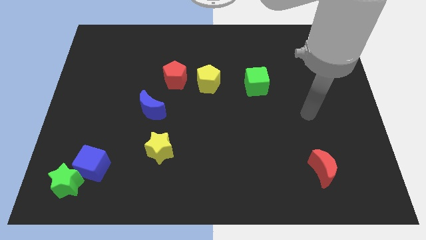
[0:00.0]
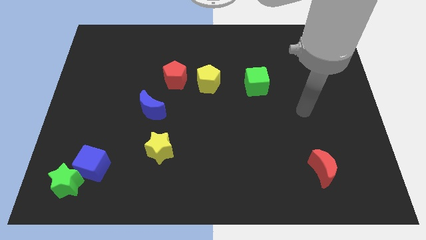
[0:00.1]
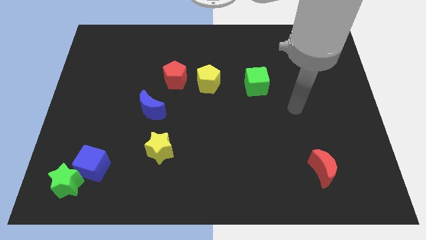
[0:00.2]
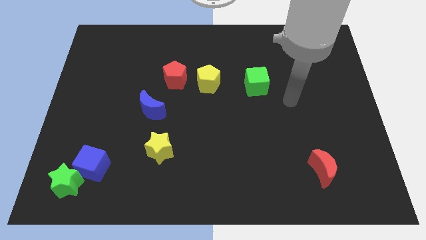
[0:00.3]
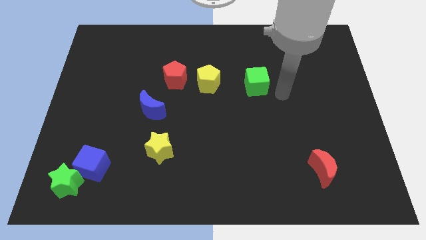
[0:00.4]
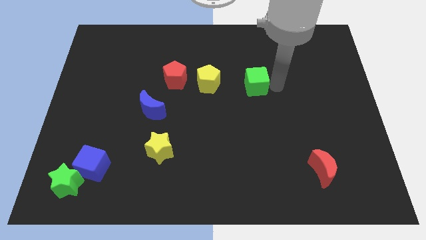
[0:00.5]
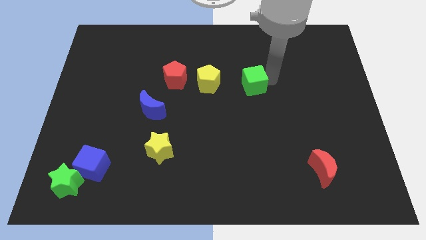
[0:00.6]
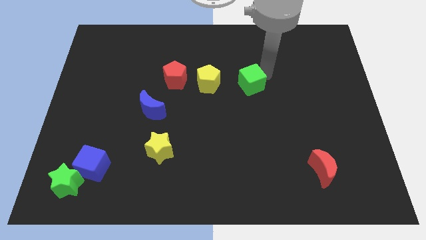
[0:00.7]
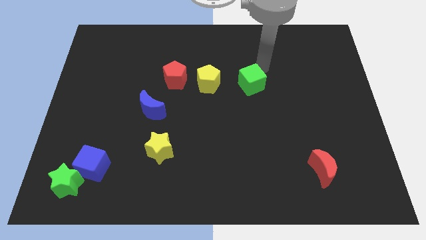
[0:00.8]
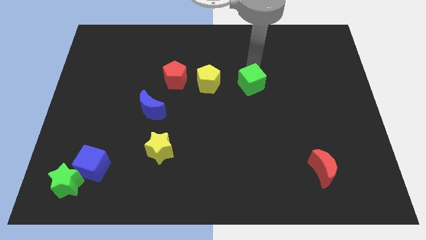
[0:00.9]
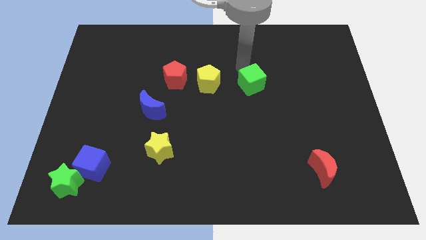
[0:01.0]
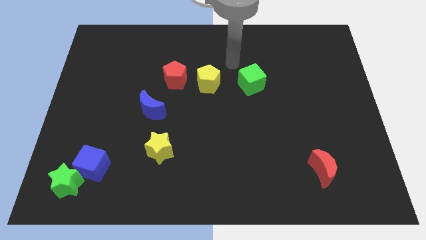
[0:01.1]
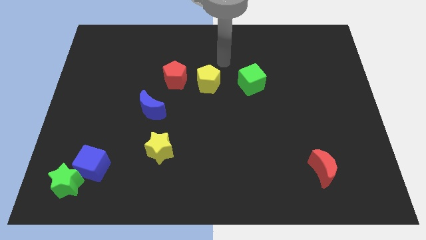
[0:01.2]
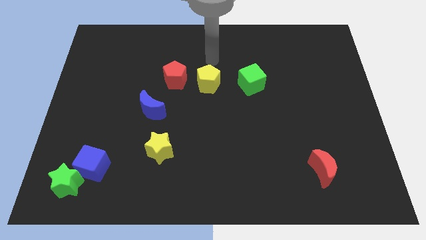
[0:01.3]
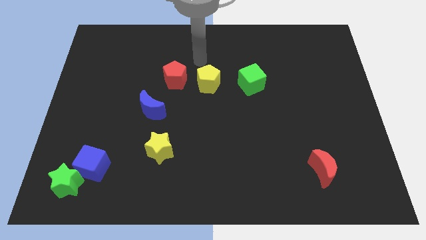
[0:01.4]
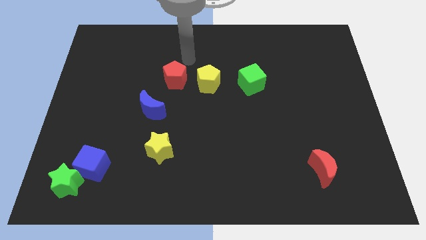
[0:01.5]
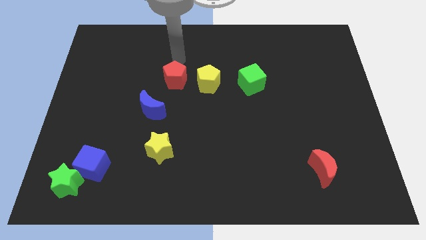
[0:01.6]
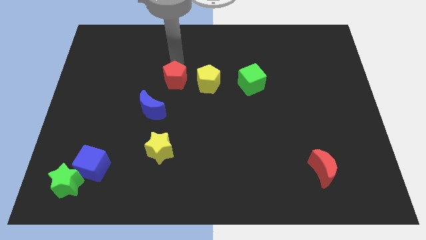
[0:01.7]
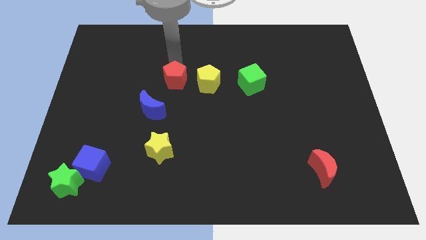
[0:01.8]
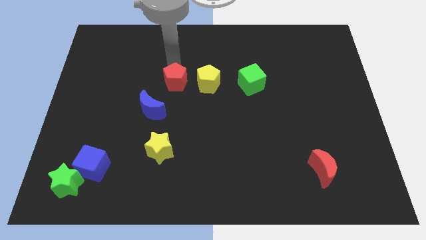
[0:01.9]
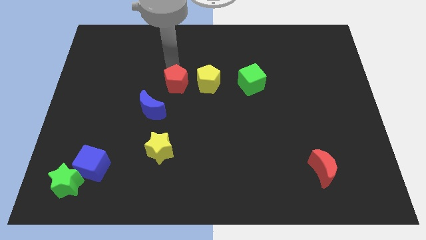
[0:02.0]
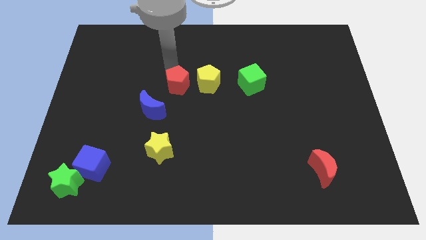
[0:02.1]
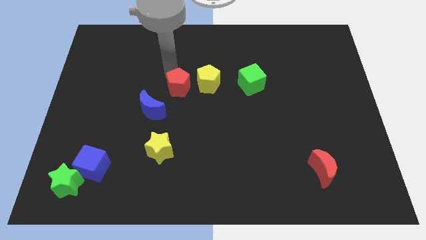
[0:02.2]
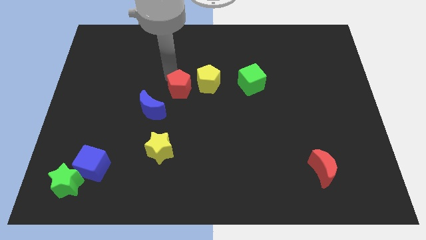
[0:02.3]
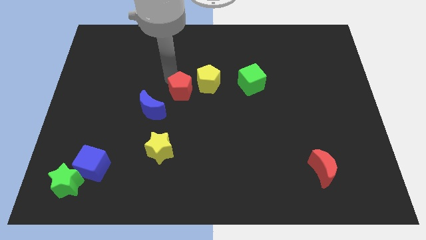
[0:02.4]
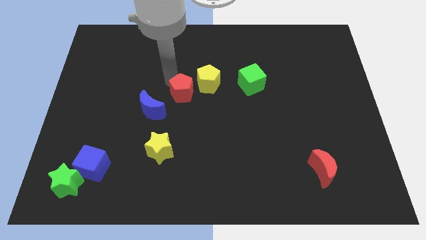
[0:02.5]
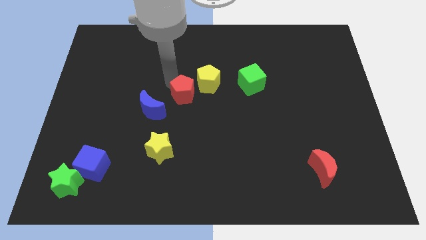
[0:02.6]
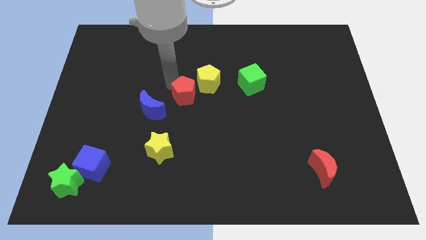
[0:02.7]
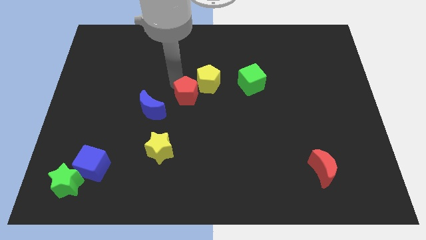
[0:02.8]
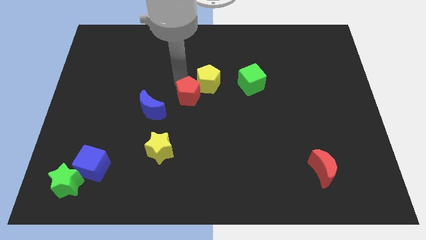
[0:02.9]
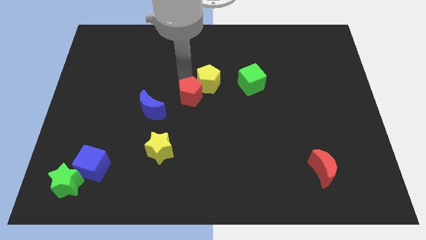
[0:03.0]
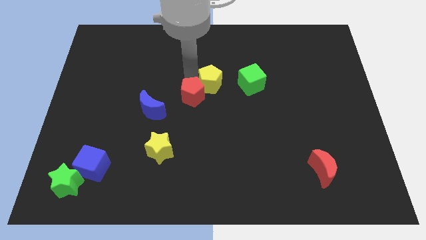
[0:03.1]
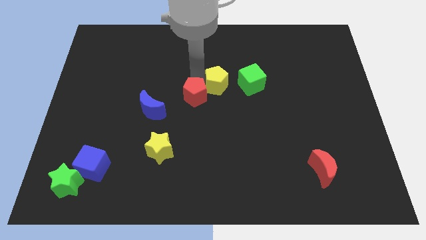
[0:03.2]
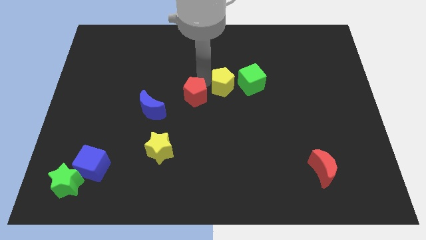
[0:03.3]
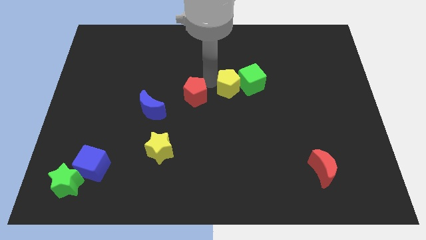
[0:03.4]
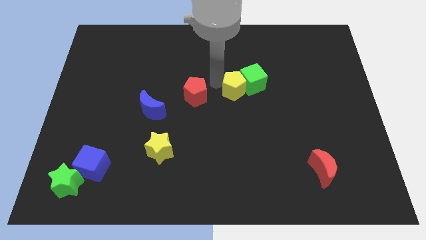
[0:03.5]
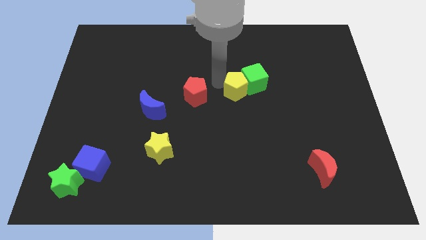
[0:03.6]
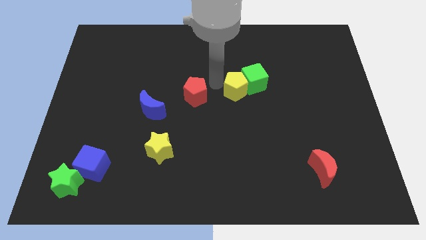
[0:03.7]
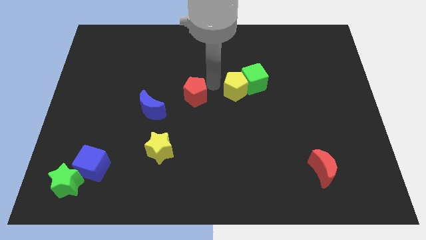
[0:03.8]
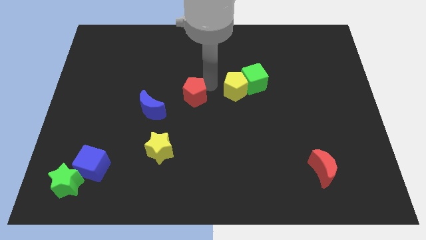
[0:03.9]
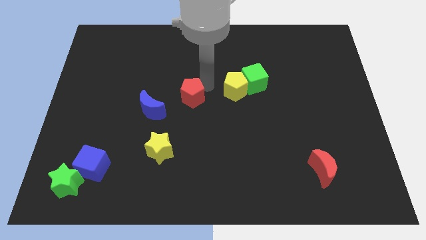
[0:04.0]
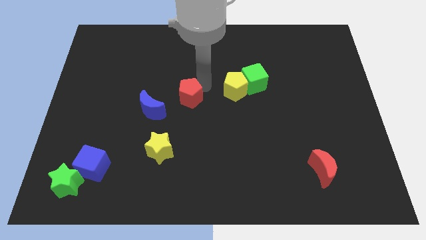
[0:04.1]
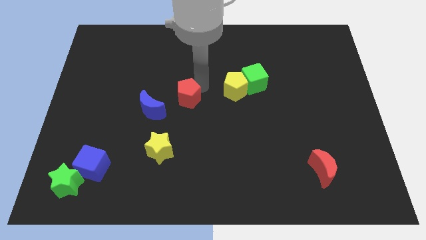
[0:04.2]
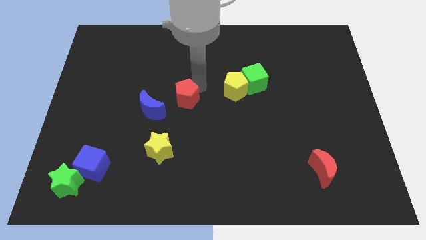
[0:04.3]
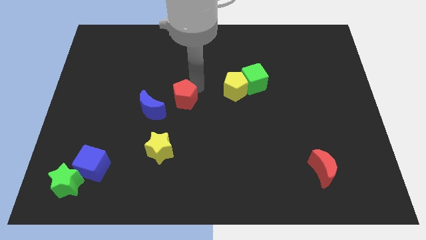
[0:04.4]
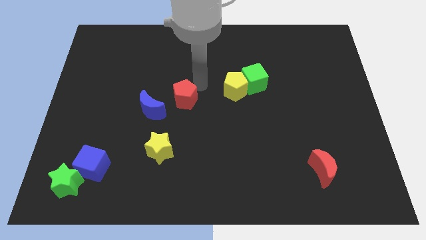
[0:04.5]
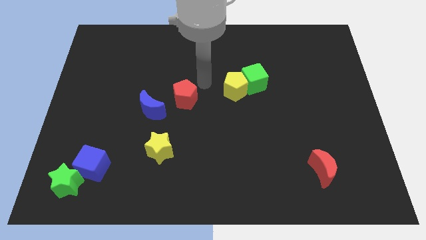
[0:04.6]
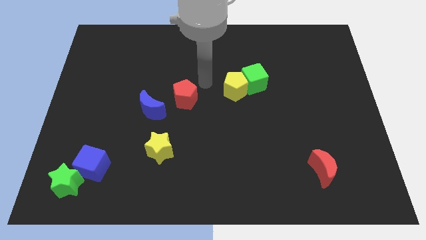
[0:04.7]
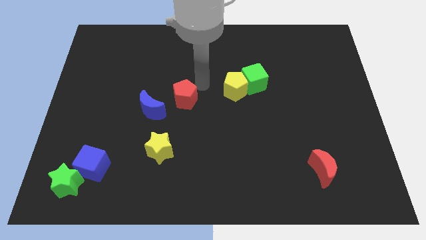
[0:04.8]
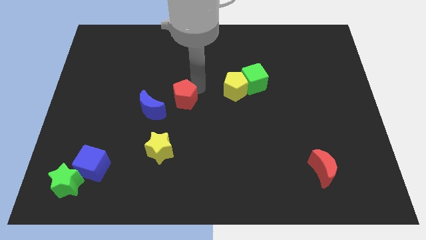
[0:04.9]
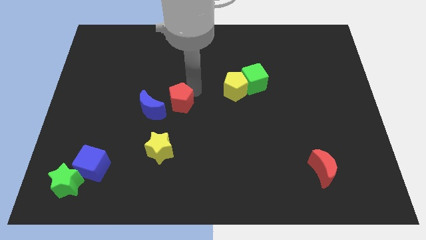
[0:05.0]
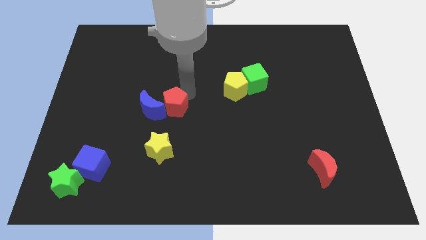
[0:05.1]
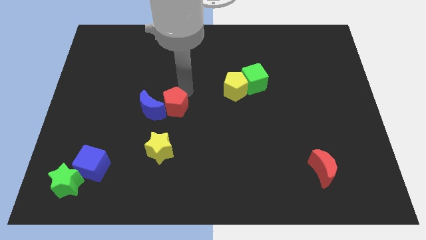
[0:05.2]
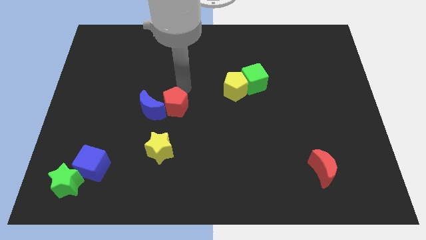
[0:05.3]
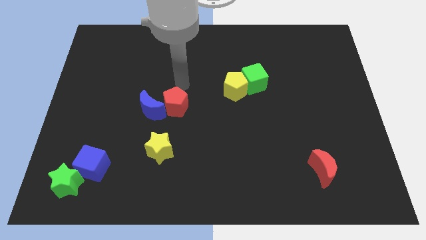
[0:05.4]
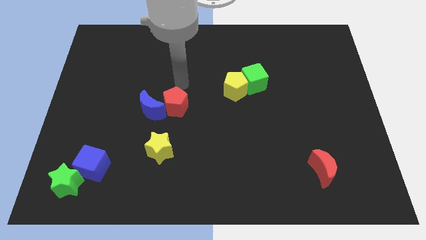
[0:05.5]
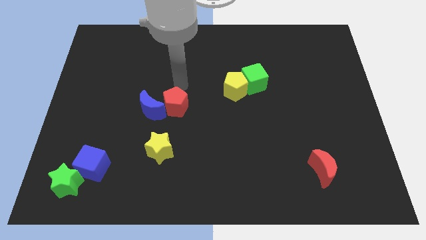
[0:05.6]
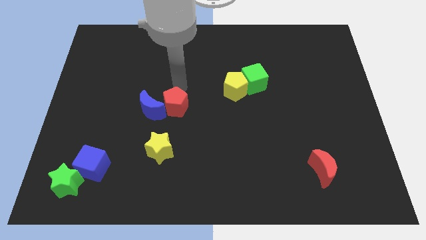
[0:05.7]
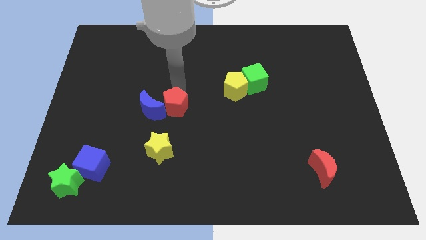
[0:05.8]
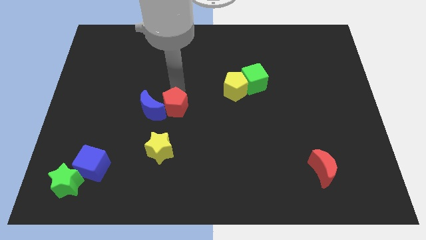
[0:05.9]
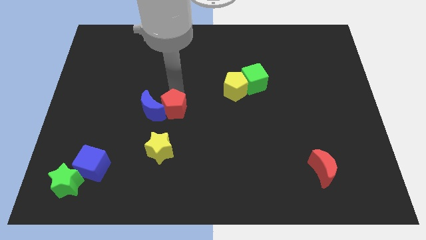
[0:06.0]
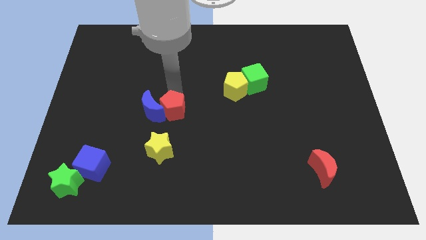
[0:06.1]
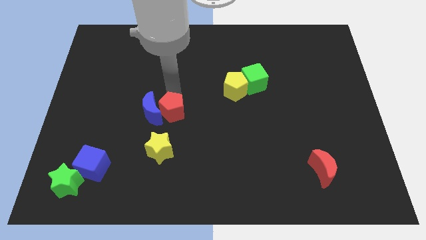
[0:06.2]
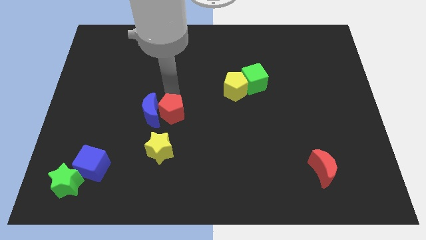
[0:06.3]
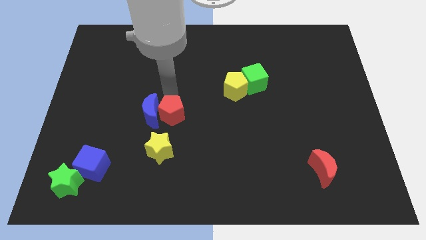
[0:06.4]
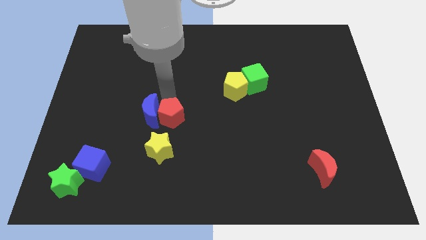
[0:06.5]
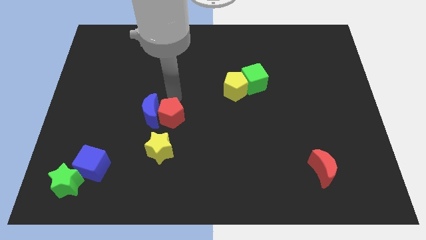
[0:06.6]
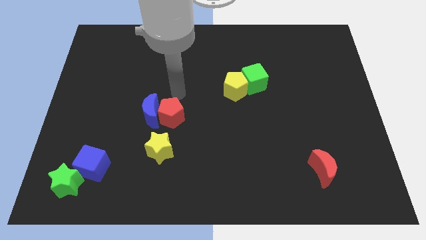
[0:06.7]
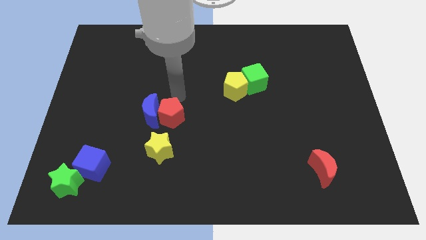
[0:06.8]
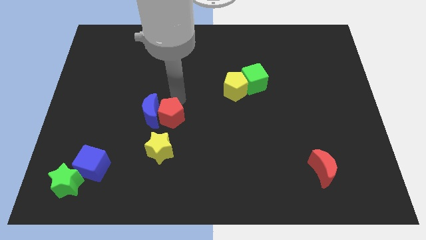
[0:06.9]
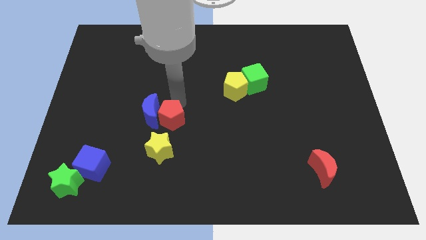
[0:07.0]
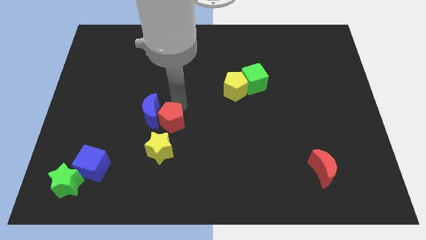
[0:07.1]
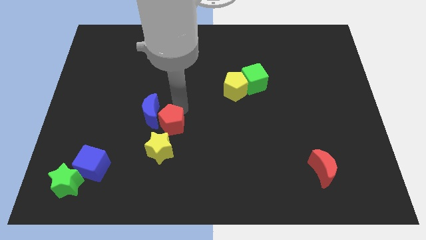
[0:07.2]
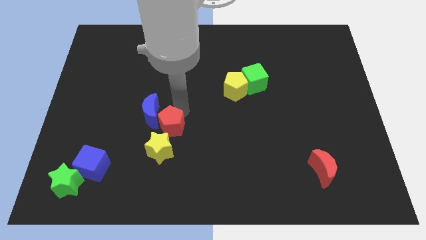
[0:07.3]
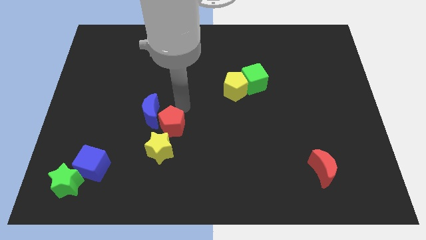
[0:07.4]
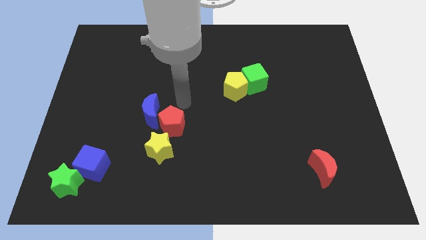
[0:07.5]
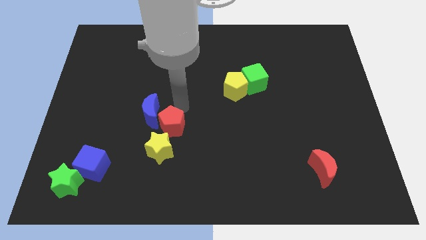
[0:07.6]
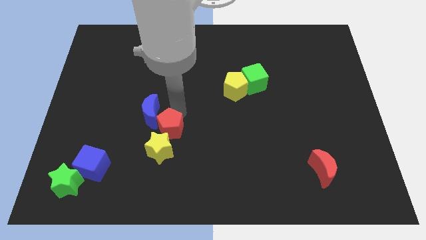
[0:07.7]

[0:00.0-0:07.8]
move the red pentagon towards the yellow star

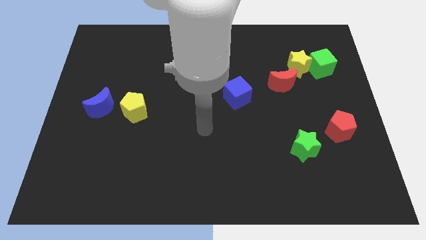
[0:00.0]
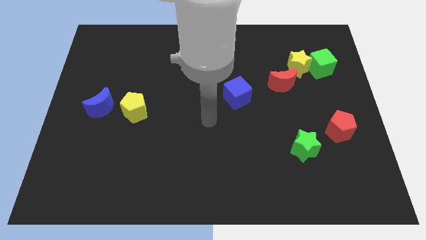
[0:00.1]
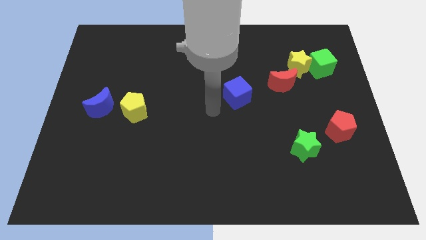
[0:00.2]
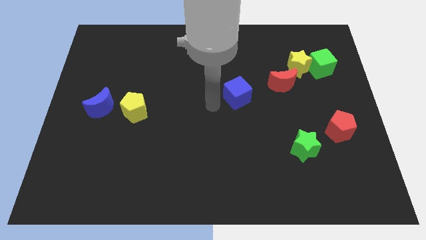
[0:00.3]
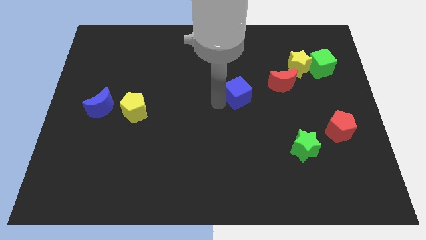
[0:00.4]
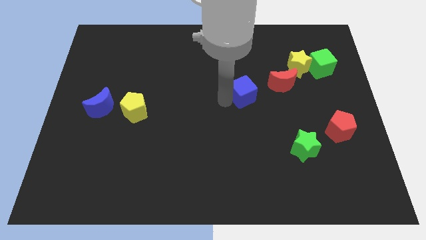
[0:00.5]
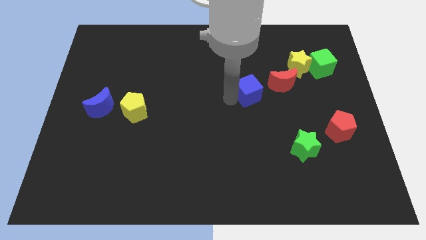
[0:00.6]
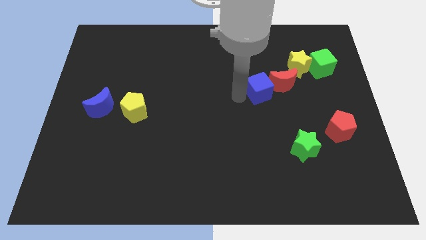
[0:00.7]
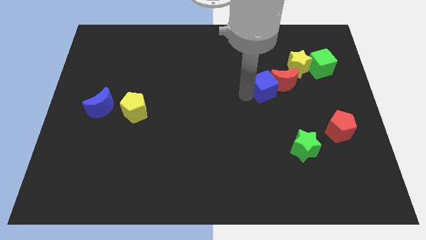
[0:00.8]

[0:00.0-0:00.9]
move the blue cube towards the red moon
